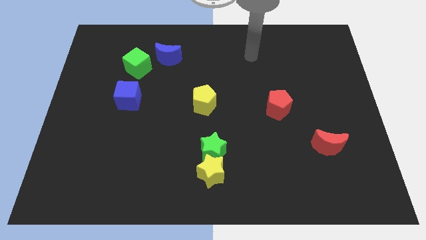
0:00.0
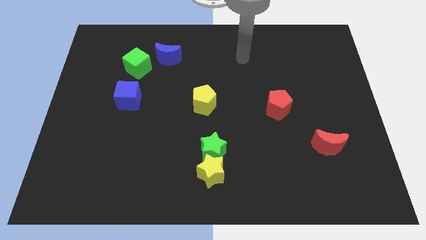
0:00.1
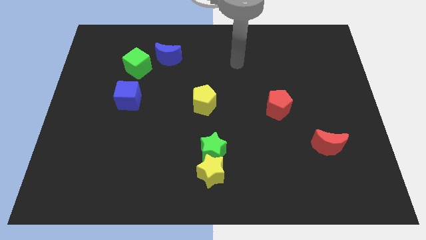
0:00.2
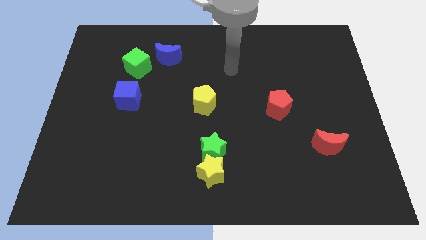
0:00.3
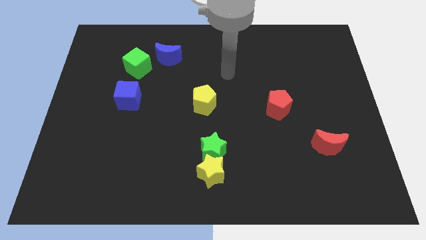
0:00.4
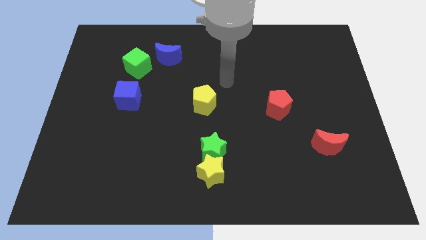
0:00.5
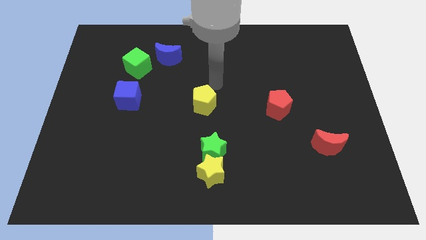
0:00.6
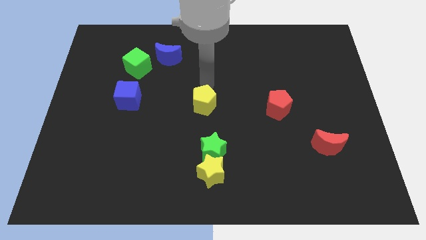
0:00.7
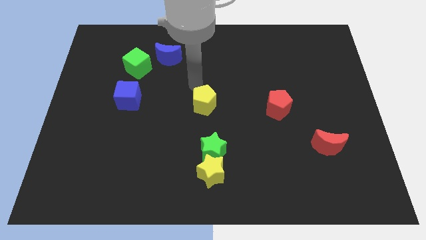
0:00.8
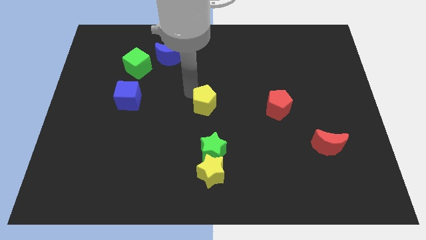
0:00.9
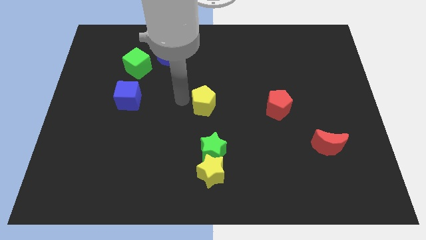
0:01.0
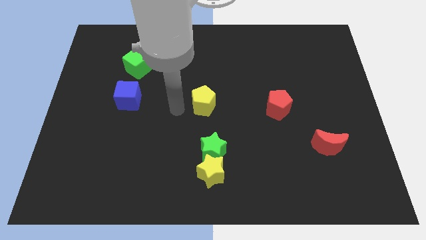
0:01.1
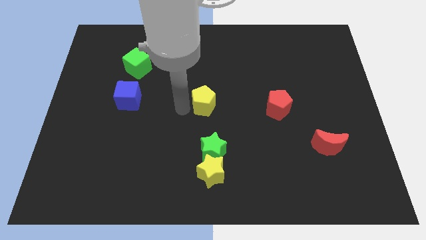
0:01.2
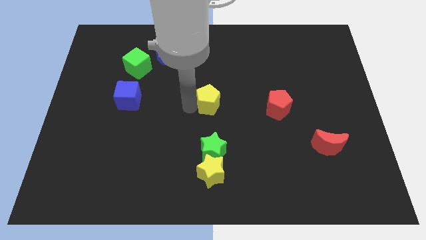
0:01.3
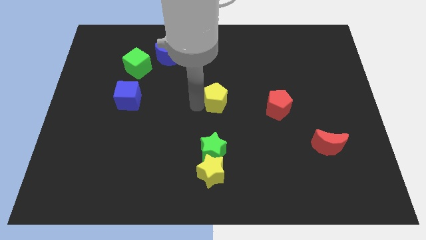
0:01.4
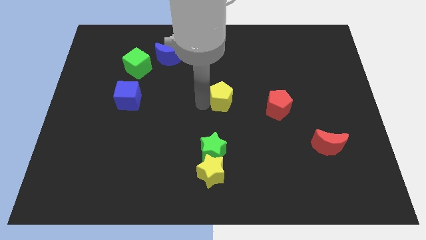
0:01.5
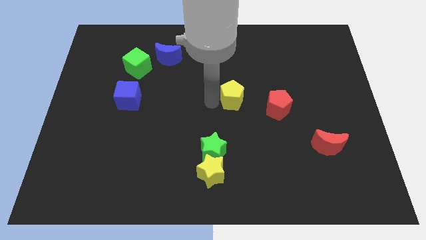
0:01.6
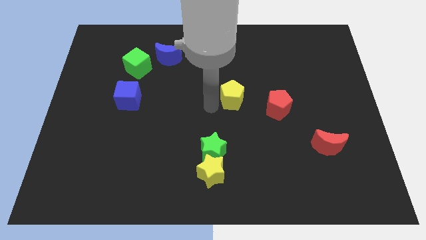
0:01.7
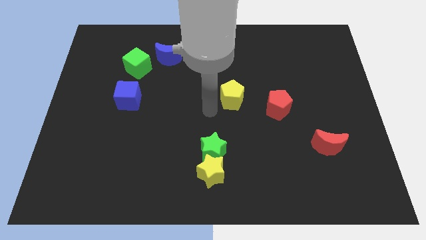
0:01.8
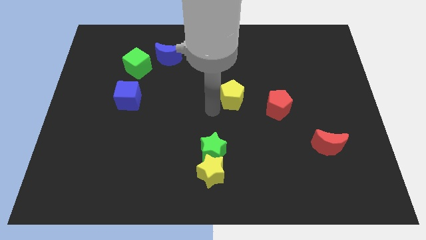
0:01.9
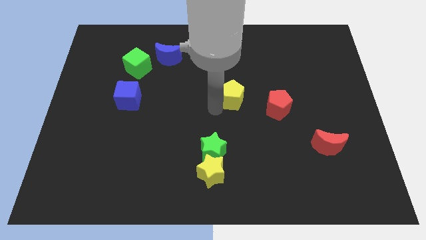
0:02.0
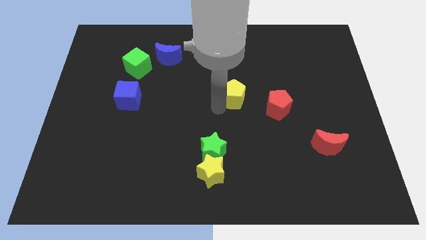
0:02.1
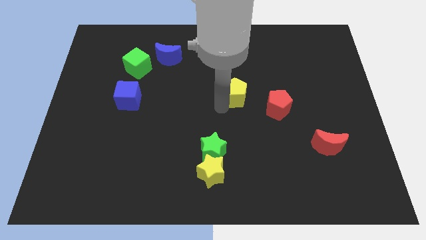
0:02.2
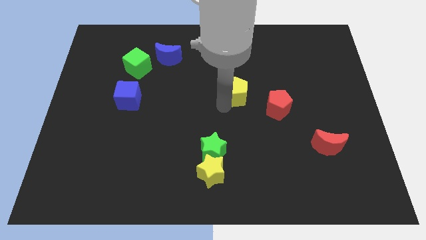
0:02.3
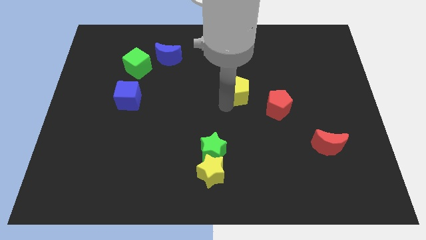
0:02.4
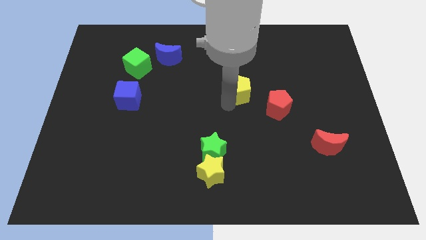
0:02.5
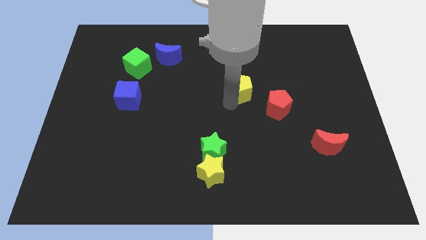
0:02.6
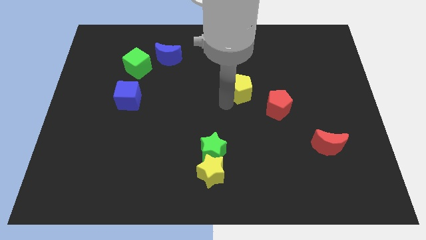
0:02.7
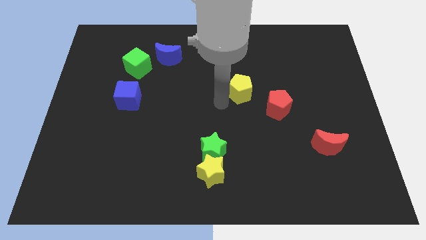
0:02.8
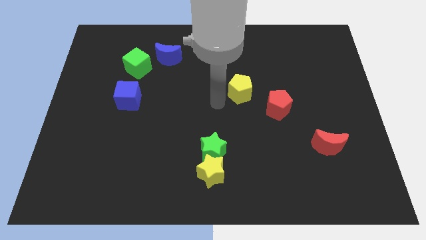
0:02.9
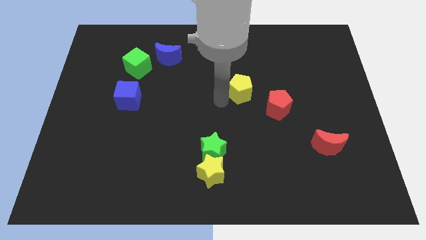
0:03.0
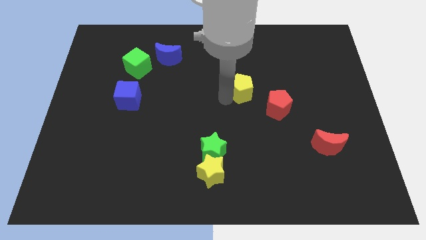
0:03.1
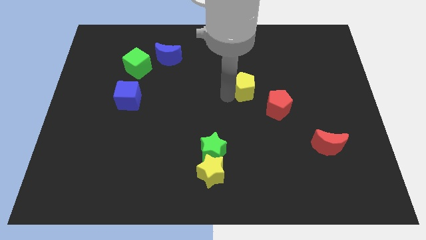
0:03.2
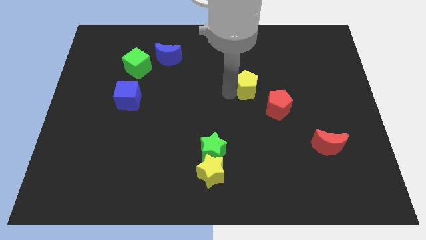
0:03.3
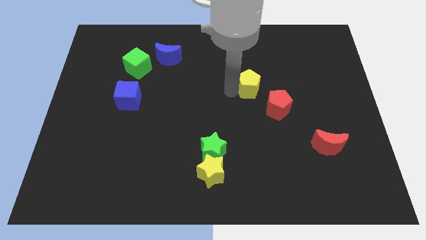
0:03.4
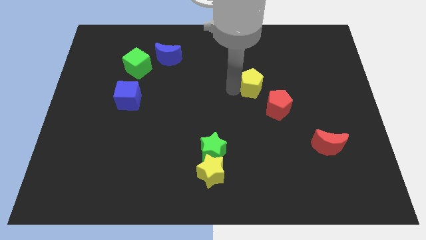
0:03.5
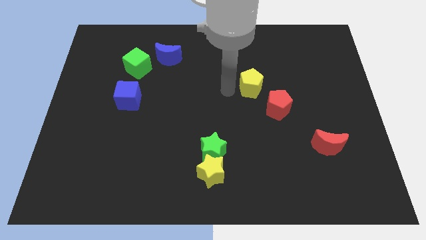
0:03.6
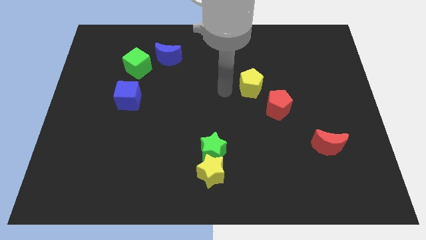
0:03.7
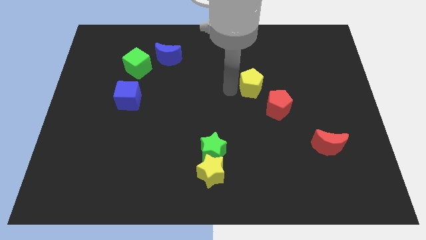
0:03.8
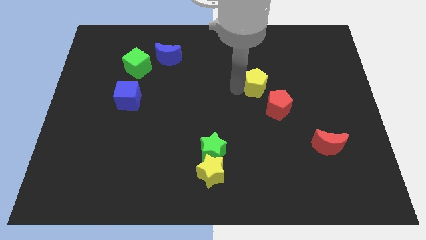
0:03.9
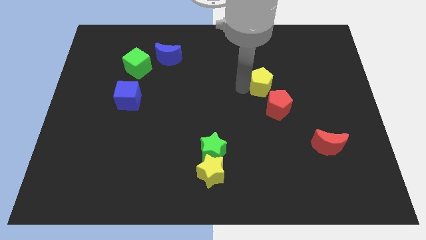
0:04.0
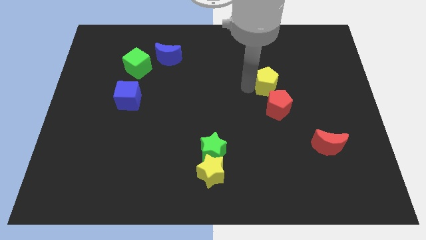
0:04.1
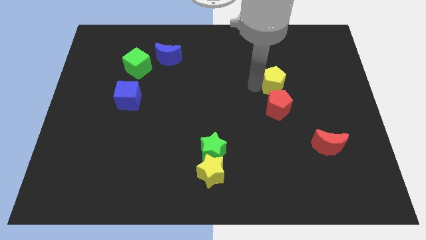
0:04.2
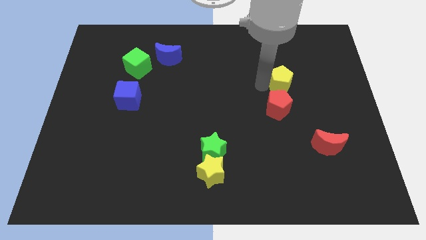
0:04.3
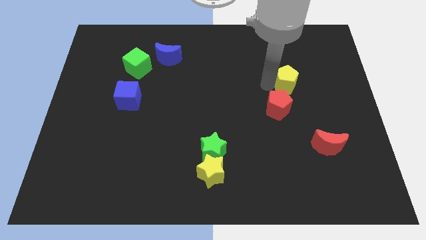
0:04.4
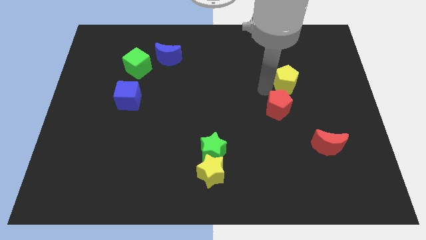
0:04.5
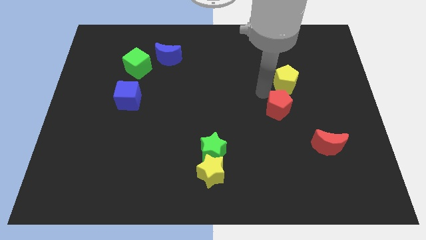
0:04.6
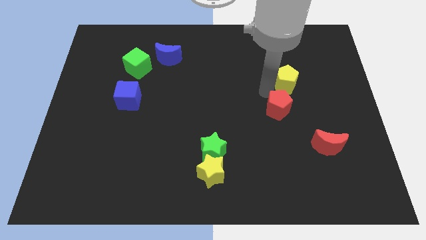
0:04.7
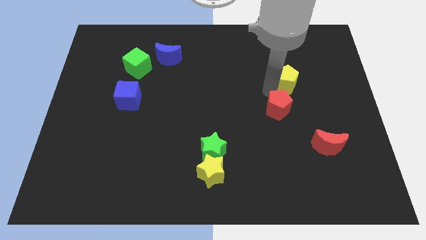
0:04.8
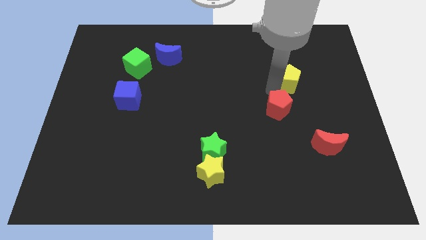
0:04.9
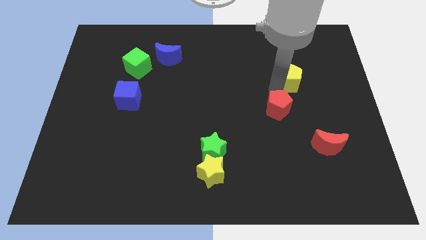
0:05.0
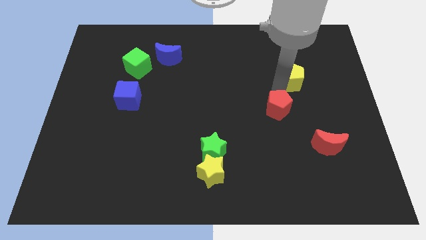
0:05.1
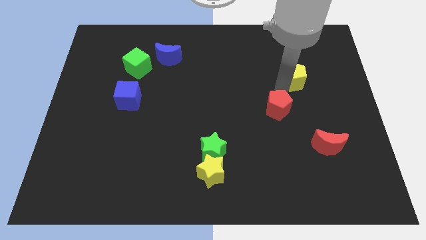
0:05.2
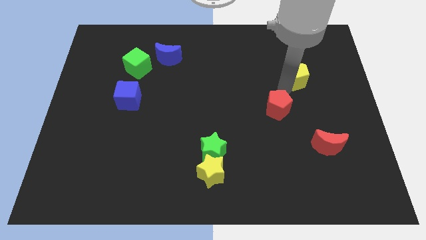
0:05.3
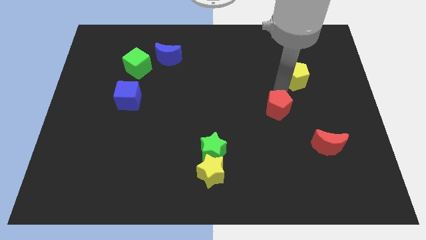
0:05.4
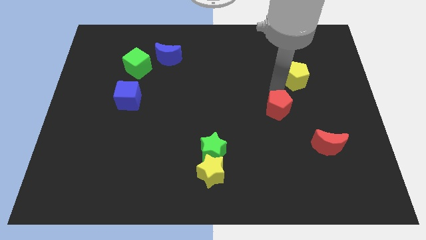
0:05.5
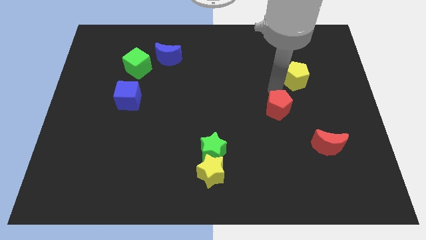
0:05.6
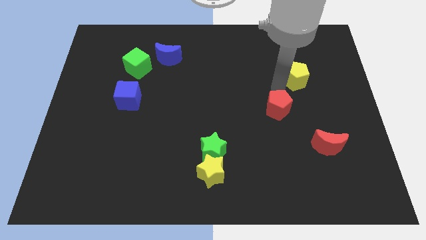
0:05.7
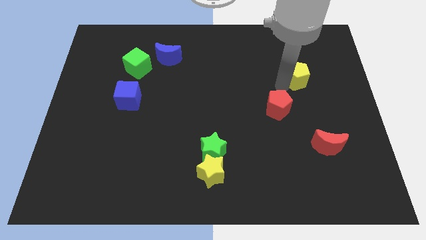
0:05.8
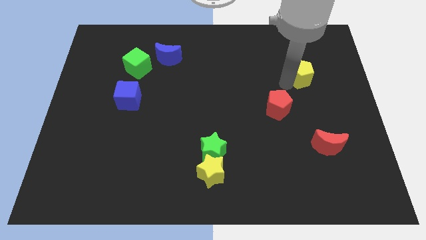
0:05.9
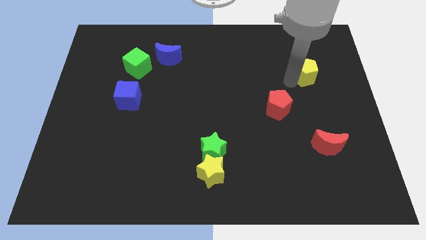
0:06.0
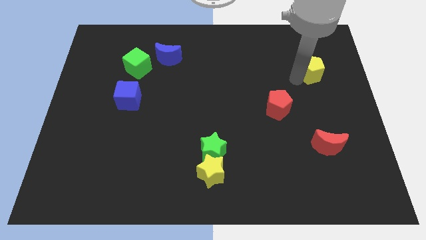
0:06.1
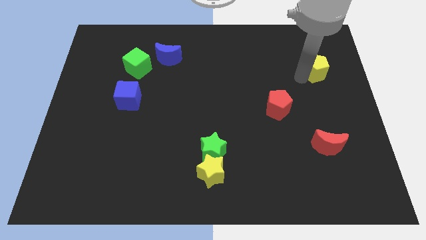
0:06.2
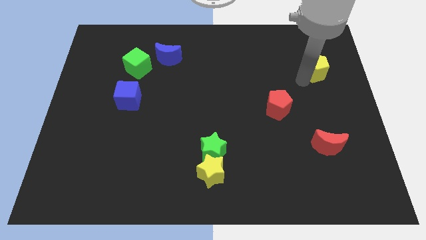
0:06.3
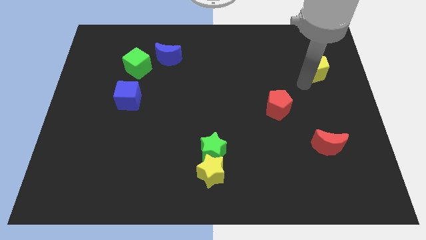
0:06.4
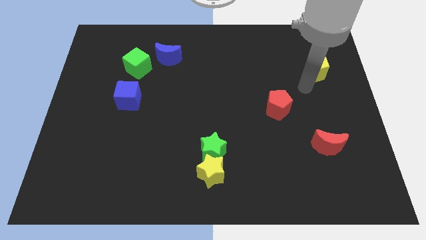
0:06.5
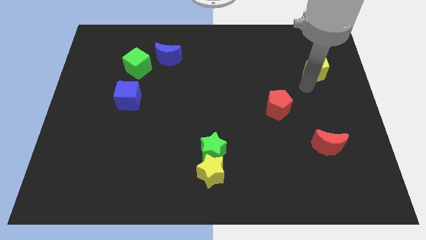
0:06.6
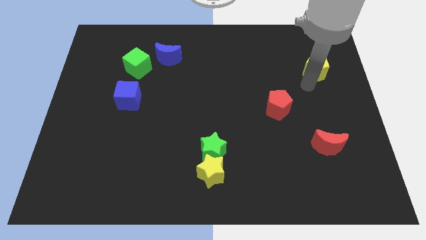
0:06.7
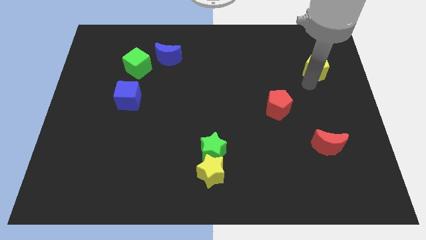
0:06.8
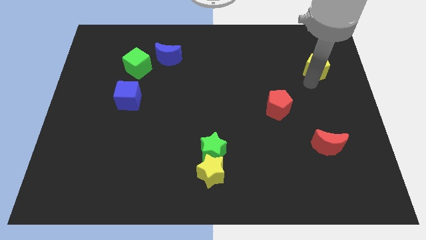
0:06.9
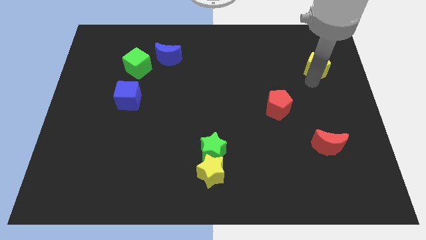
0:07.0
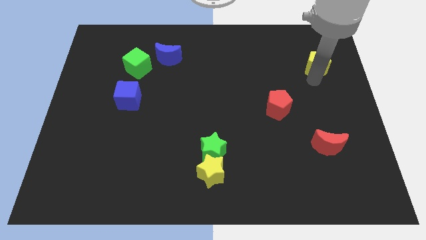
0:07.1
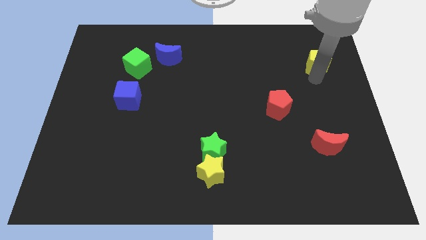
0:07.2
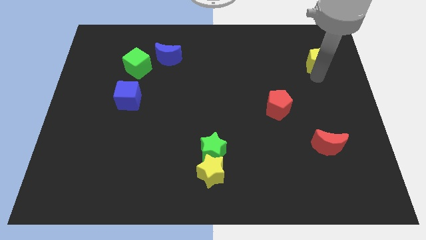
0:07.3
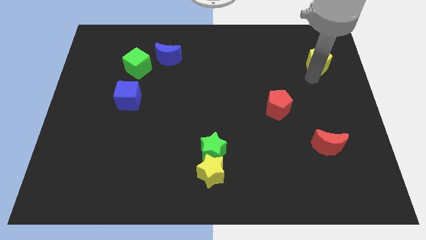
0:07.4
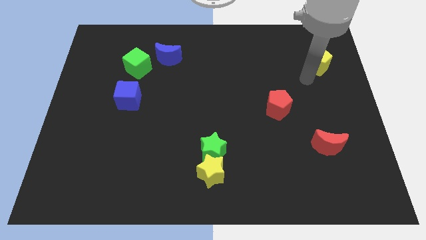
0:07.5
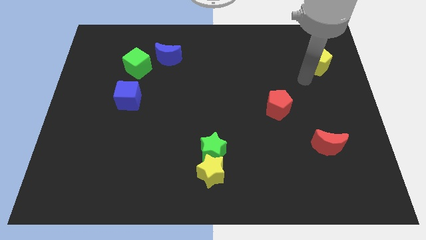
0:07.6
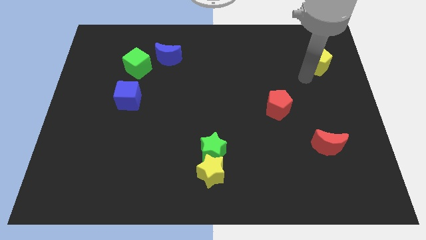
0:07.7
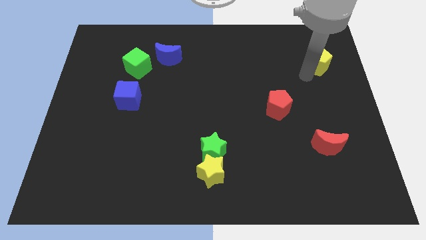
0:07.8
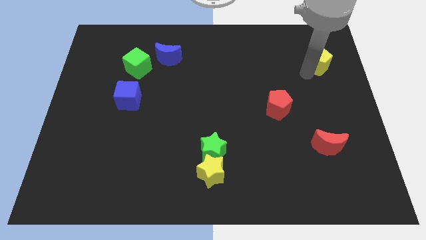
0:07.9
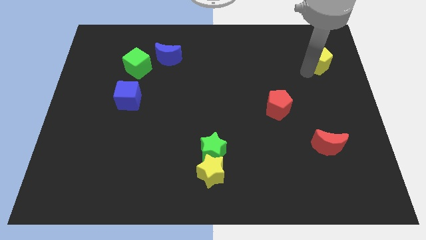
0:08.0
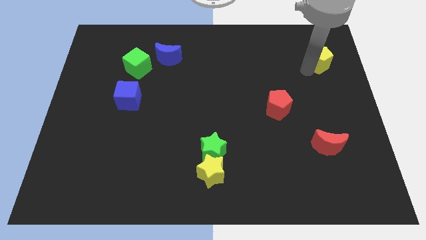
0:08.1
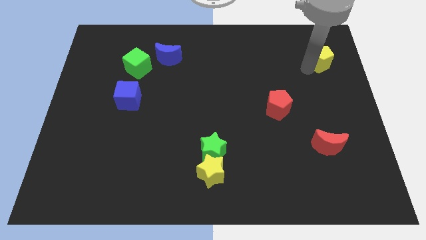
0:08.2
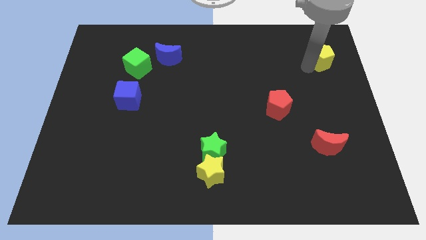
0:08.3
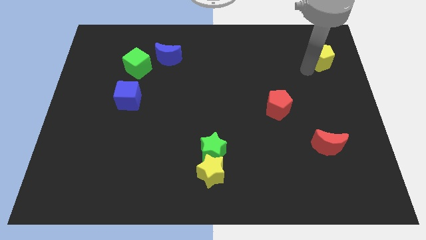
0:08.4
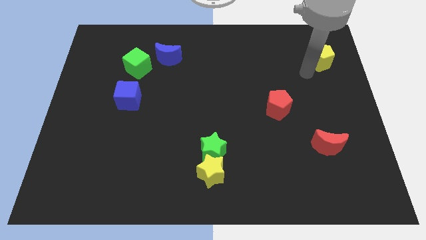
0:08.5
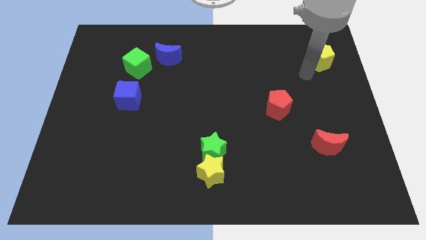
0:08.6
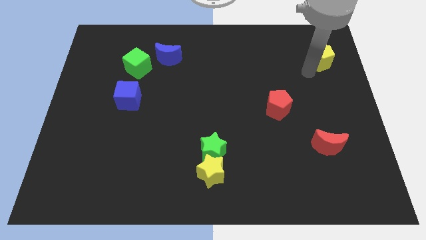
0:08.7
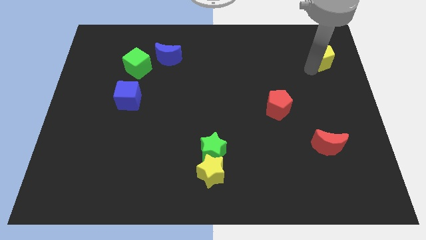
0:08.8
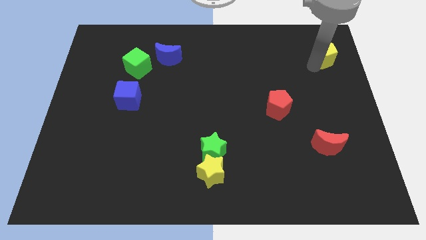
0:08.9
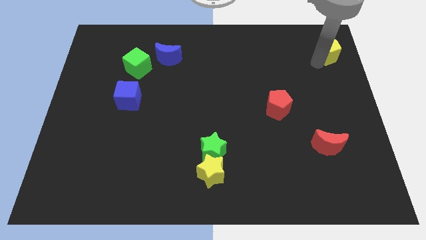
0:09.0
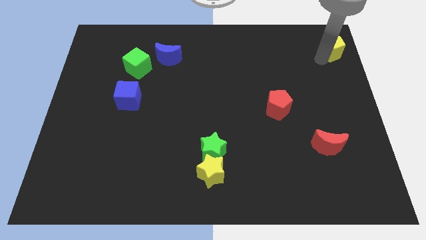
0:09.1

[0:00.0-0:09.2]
slide the yellow pentagon to the top right
